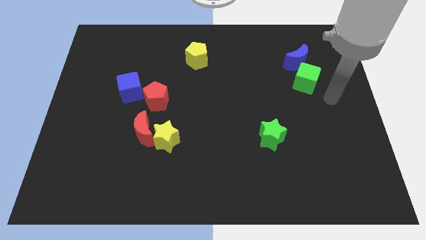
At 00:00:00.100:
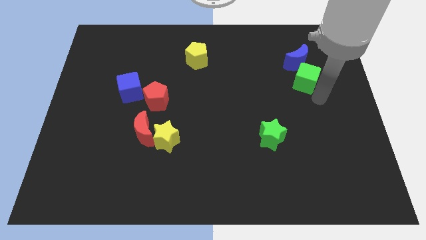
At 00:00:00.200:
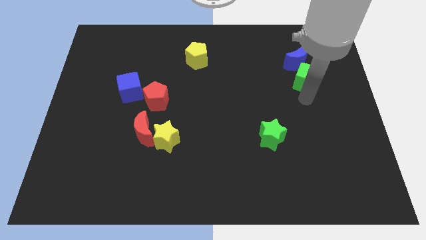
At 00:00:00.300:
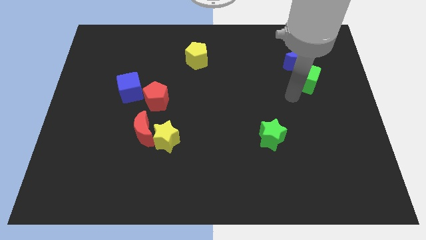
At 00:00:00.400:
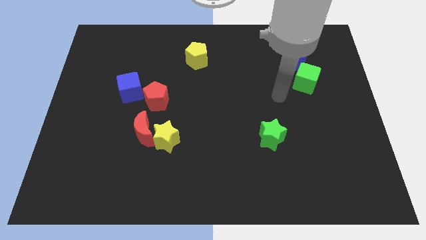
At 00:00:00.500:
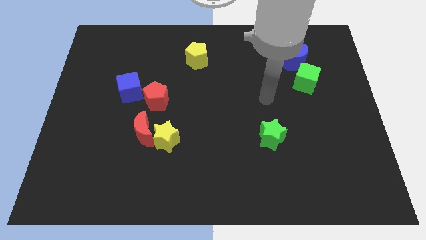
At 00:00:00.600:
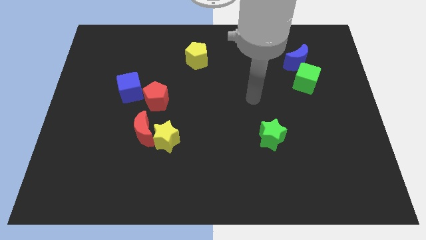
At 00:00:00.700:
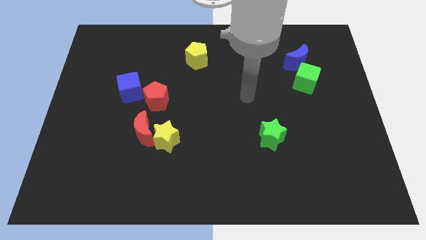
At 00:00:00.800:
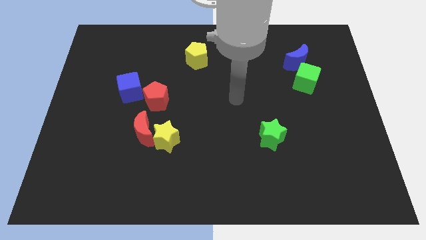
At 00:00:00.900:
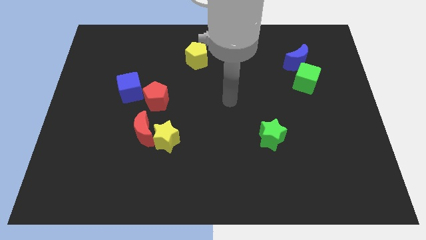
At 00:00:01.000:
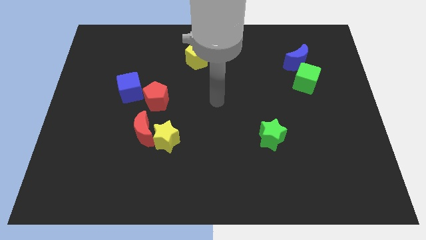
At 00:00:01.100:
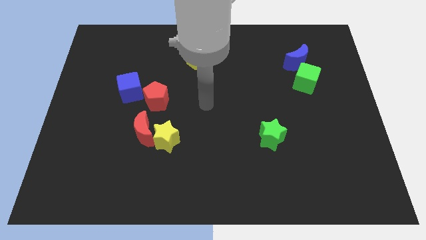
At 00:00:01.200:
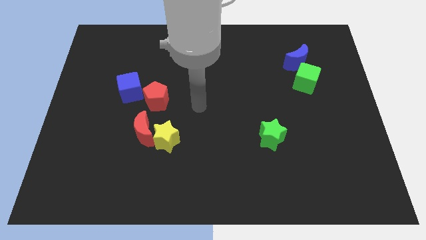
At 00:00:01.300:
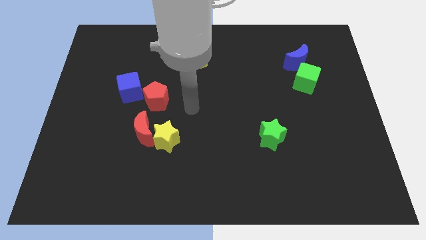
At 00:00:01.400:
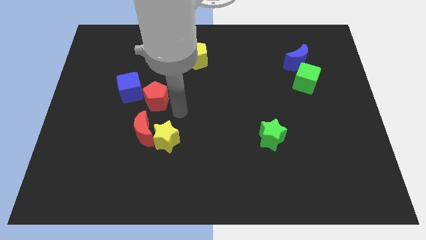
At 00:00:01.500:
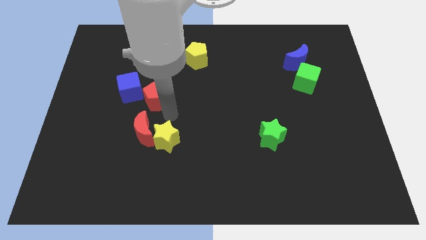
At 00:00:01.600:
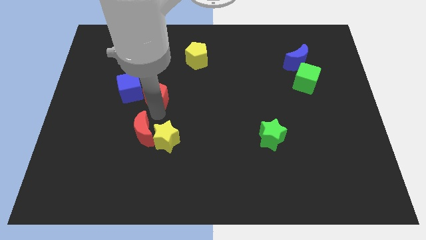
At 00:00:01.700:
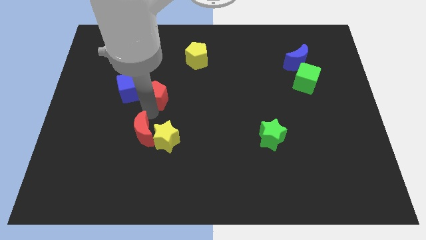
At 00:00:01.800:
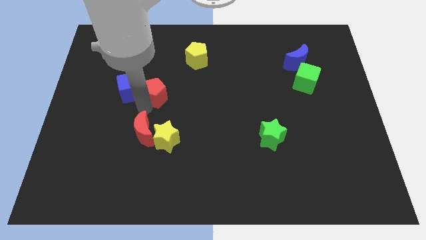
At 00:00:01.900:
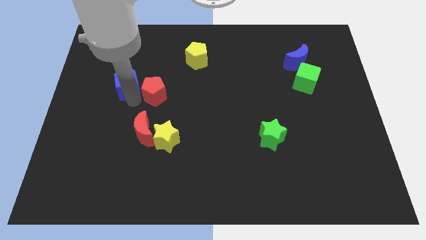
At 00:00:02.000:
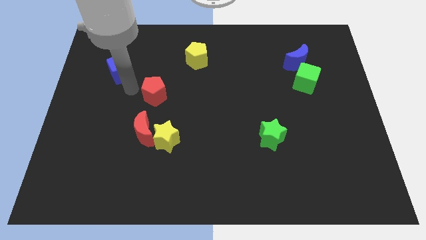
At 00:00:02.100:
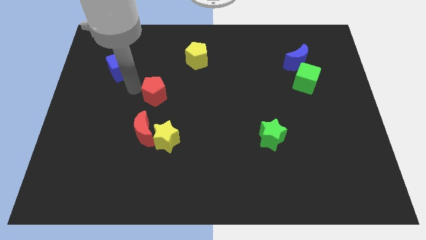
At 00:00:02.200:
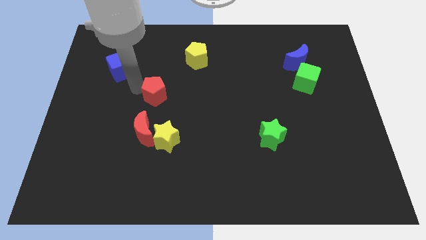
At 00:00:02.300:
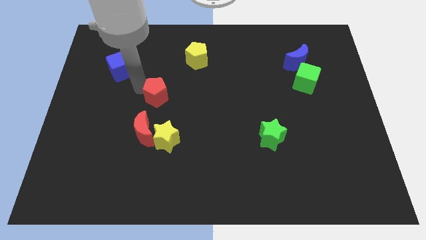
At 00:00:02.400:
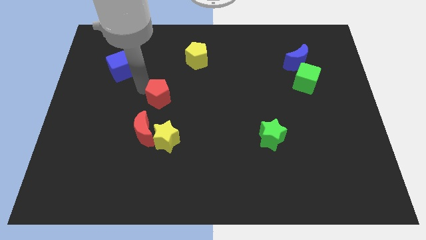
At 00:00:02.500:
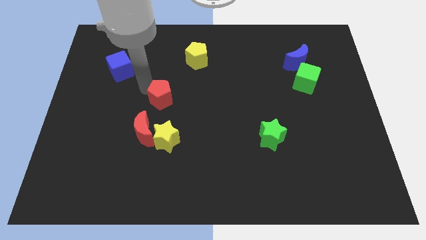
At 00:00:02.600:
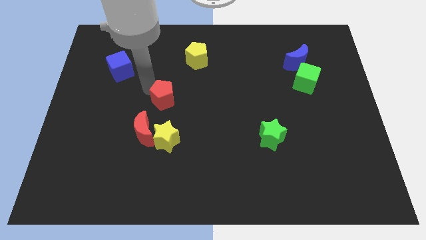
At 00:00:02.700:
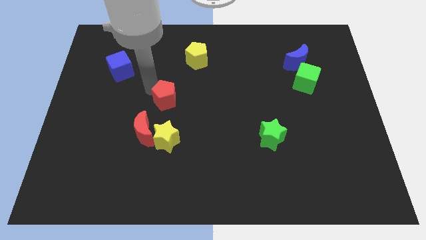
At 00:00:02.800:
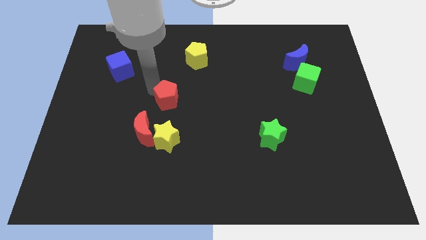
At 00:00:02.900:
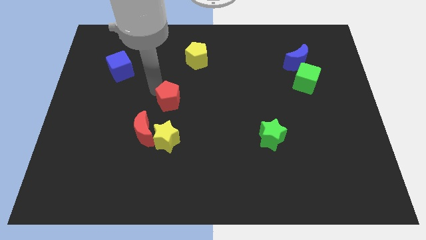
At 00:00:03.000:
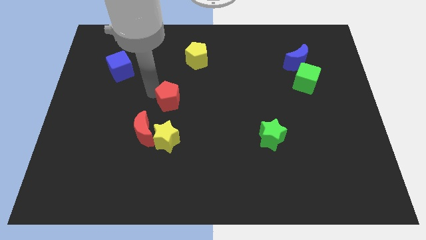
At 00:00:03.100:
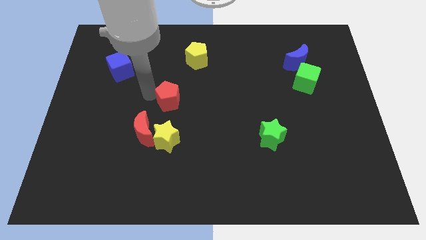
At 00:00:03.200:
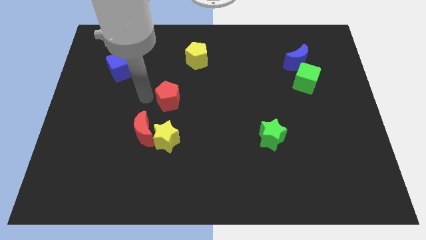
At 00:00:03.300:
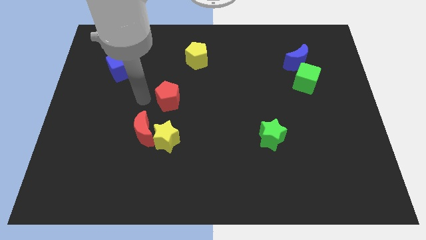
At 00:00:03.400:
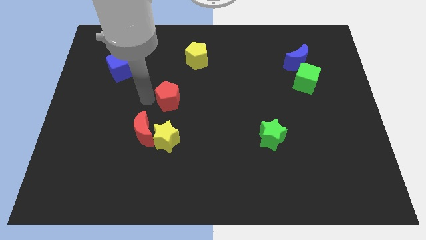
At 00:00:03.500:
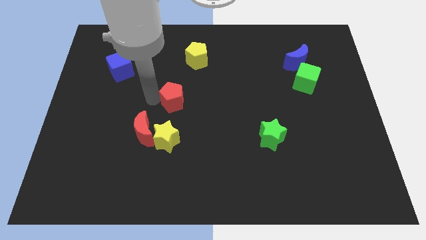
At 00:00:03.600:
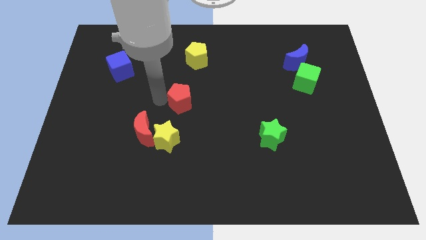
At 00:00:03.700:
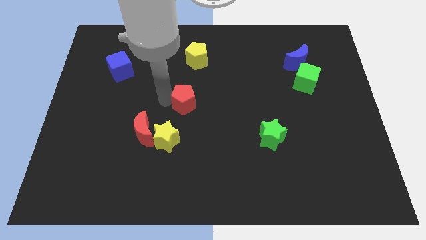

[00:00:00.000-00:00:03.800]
move the red pentagon a bit right

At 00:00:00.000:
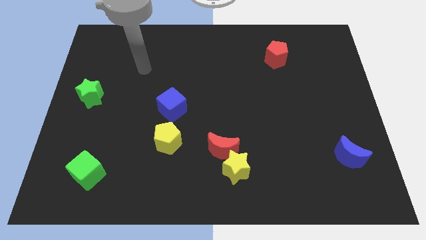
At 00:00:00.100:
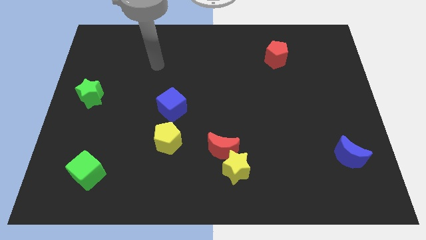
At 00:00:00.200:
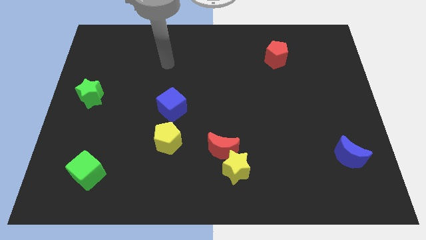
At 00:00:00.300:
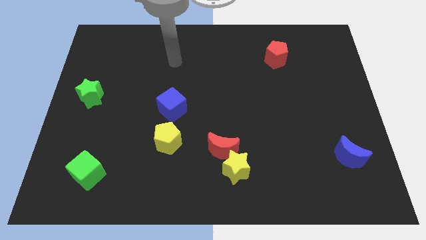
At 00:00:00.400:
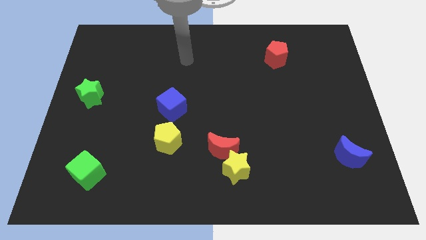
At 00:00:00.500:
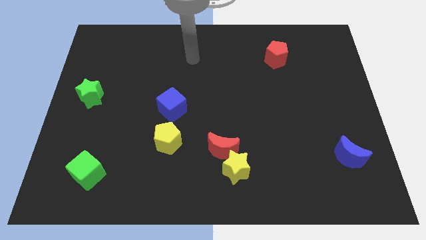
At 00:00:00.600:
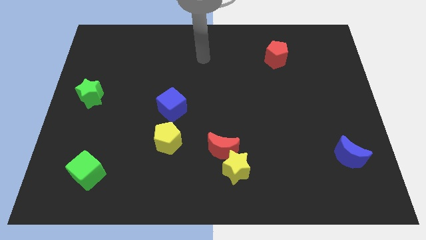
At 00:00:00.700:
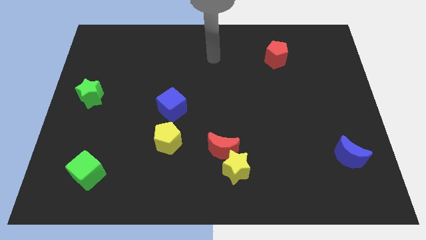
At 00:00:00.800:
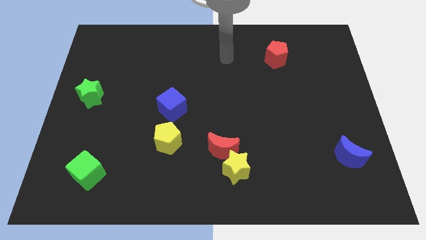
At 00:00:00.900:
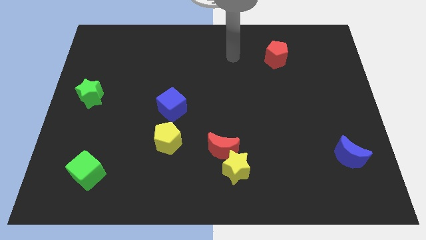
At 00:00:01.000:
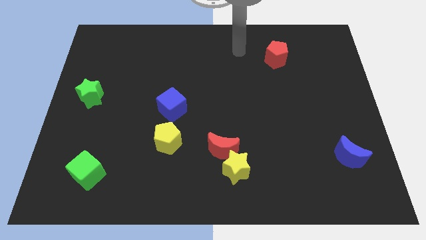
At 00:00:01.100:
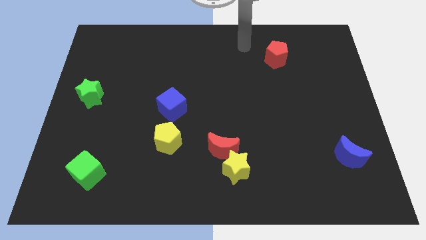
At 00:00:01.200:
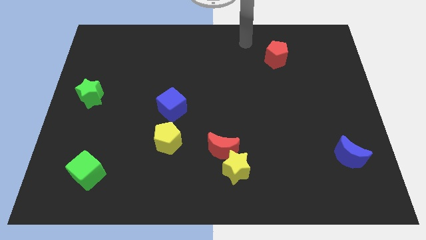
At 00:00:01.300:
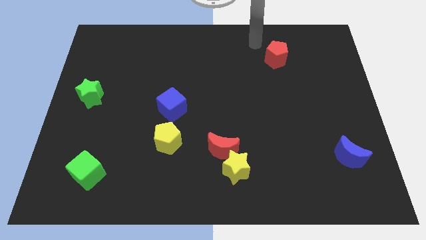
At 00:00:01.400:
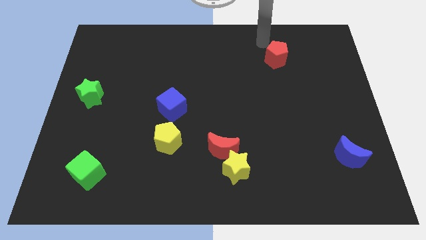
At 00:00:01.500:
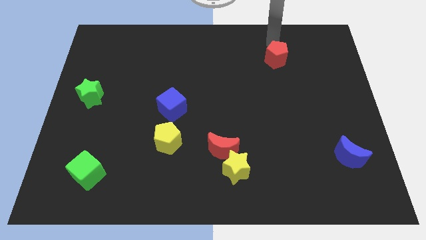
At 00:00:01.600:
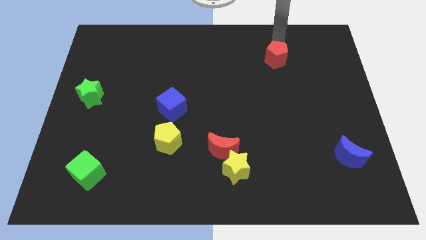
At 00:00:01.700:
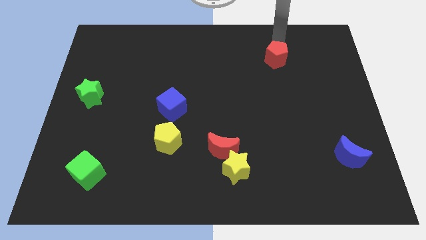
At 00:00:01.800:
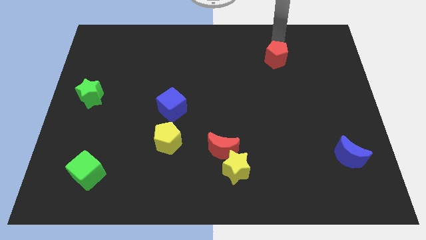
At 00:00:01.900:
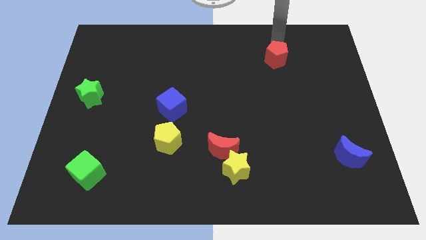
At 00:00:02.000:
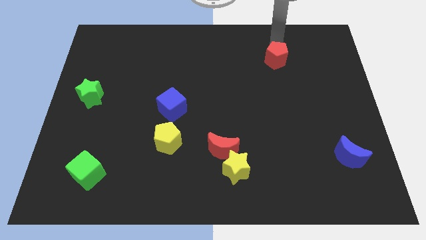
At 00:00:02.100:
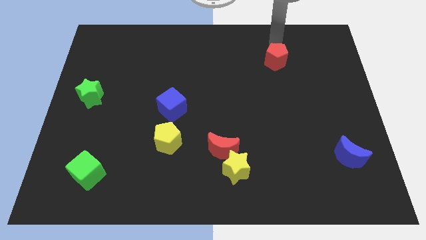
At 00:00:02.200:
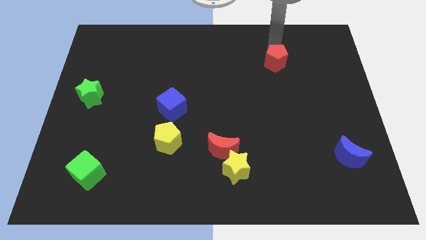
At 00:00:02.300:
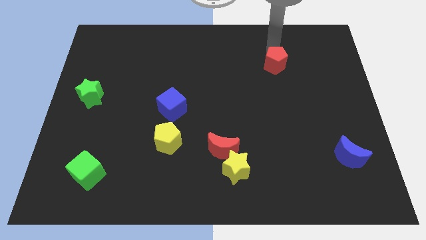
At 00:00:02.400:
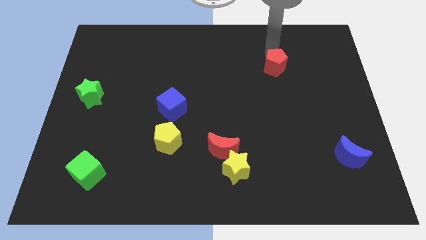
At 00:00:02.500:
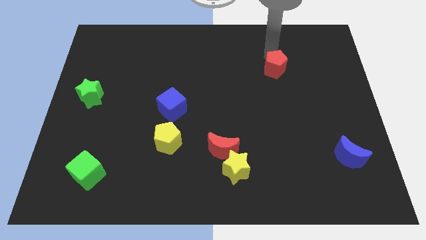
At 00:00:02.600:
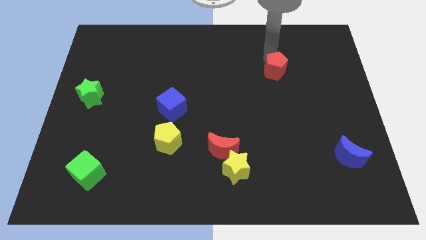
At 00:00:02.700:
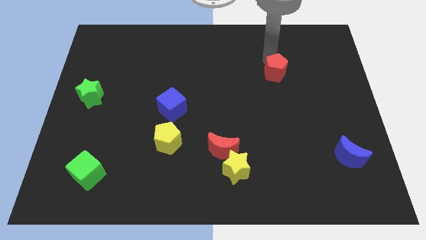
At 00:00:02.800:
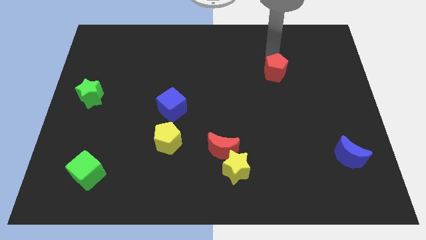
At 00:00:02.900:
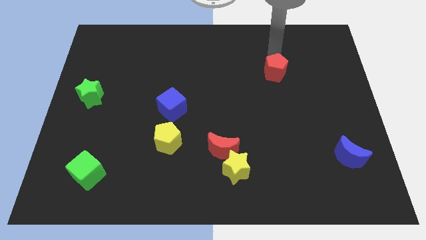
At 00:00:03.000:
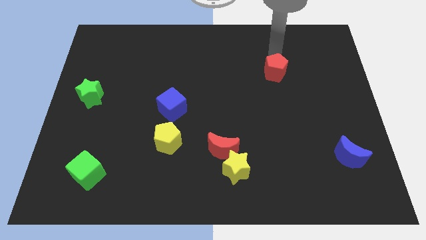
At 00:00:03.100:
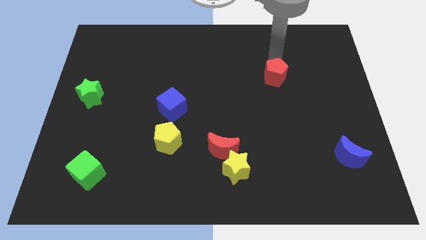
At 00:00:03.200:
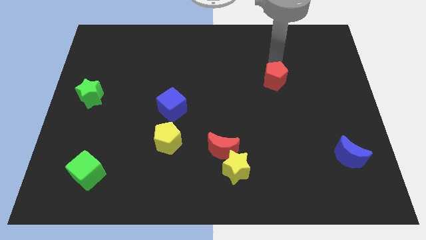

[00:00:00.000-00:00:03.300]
slightly push the red pentagon downwards

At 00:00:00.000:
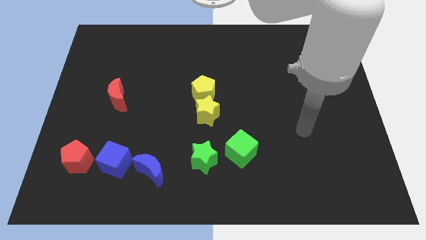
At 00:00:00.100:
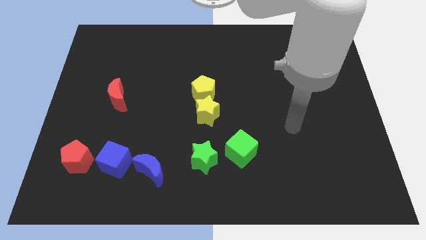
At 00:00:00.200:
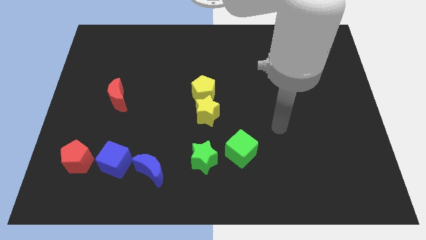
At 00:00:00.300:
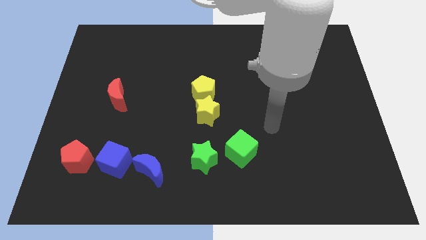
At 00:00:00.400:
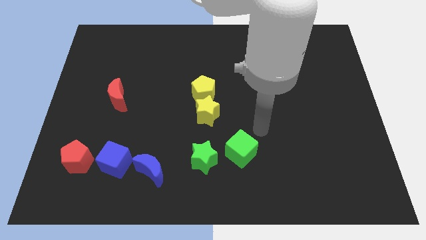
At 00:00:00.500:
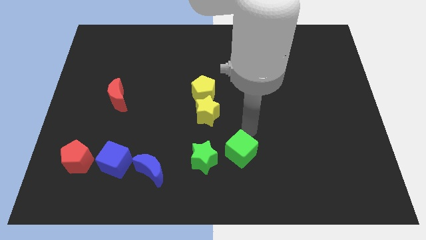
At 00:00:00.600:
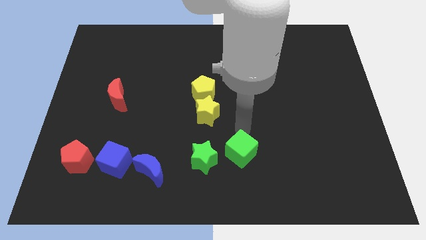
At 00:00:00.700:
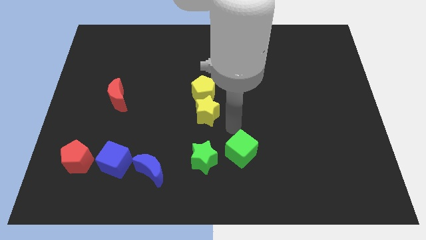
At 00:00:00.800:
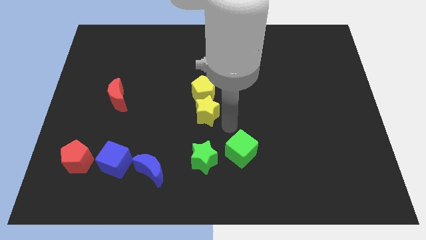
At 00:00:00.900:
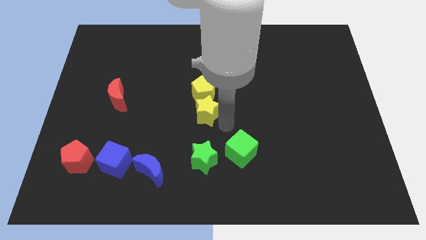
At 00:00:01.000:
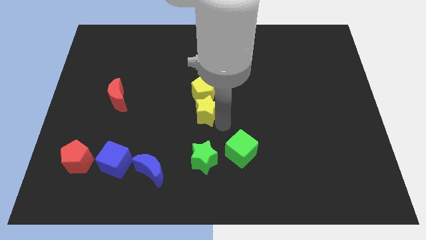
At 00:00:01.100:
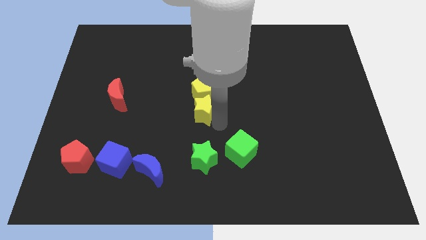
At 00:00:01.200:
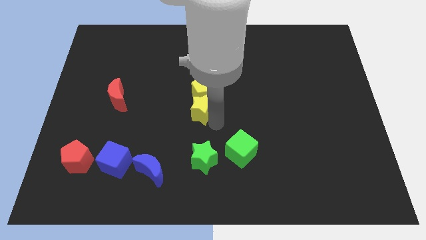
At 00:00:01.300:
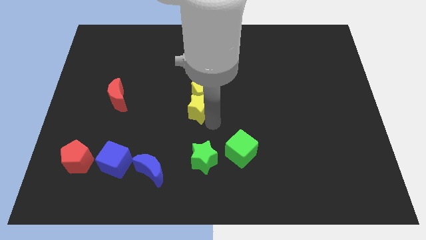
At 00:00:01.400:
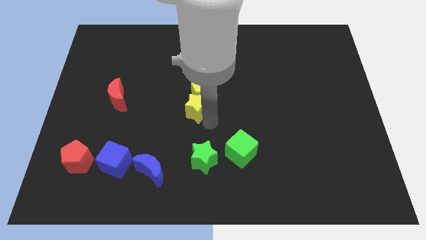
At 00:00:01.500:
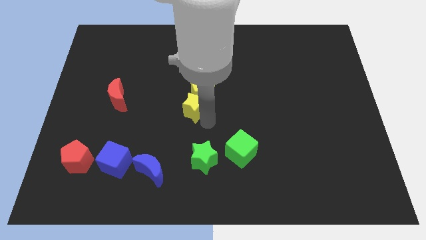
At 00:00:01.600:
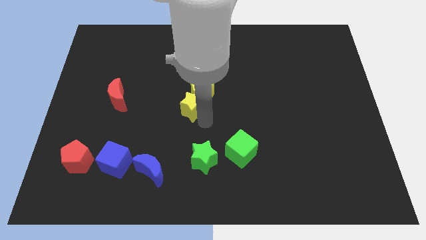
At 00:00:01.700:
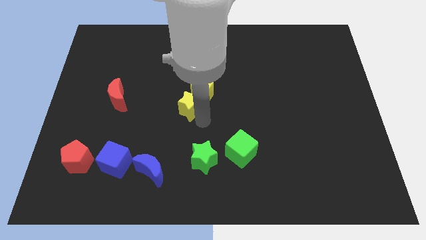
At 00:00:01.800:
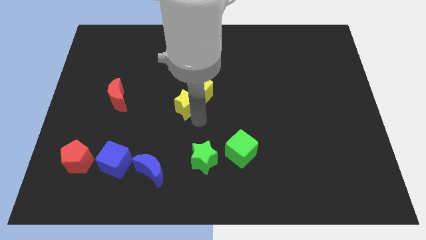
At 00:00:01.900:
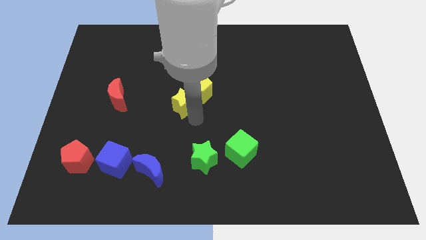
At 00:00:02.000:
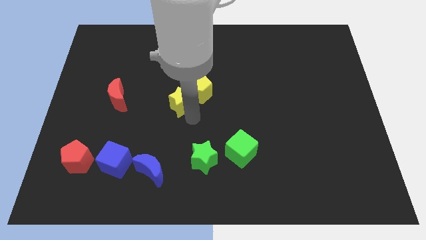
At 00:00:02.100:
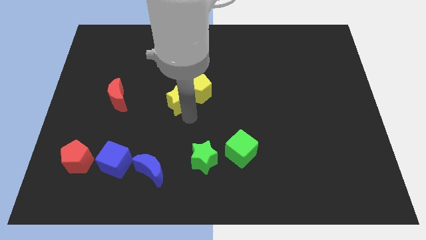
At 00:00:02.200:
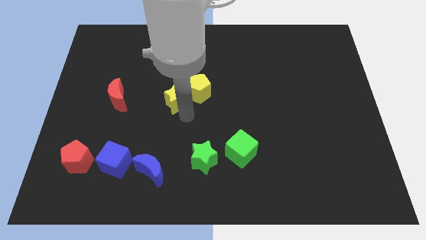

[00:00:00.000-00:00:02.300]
slide the yellow star a little upwards and then to the left
